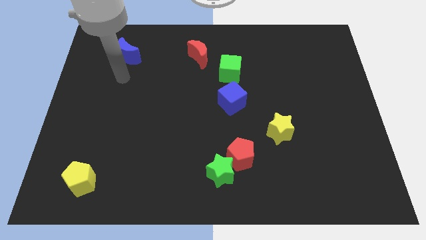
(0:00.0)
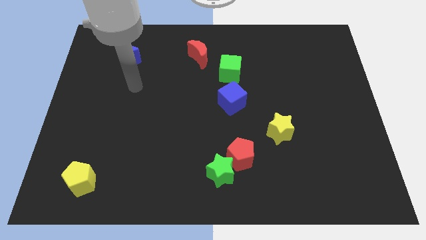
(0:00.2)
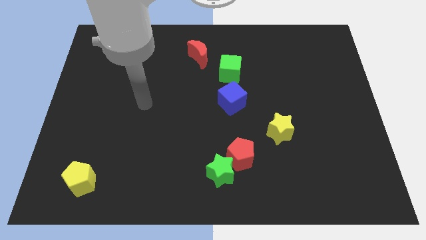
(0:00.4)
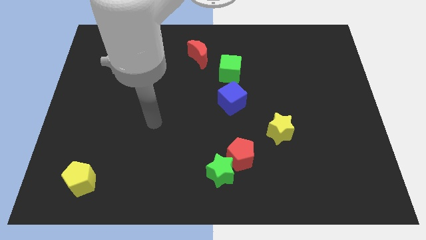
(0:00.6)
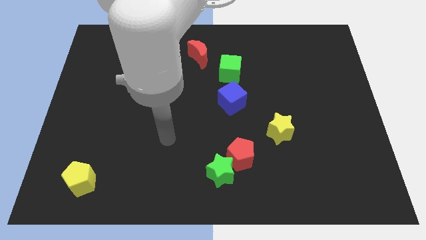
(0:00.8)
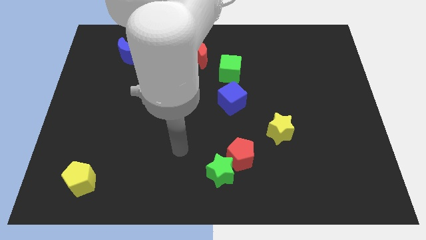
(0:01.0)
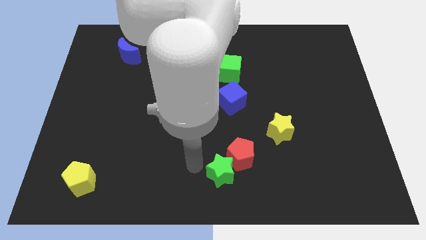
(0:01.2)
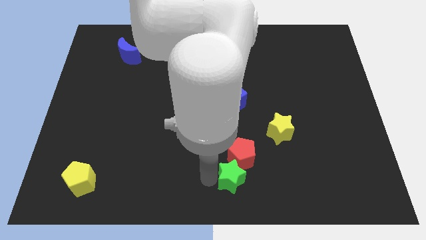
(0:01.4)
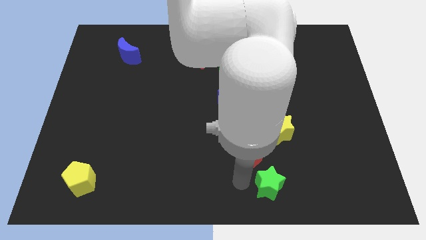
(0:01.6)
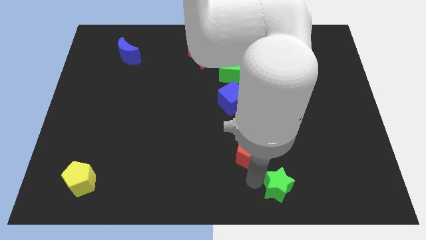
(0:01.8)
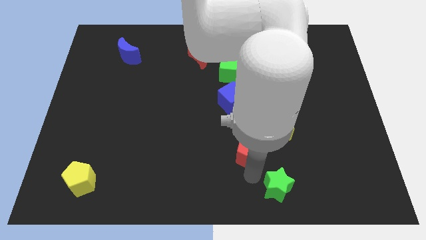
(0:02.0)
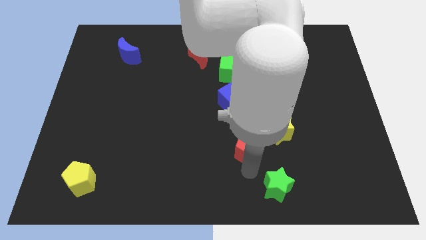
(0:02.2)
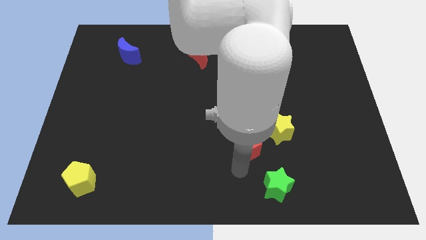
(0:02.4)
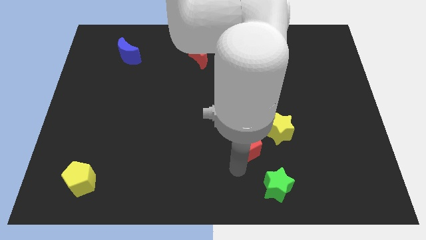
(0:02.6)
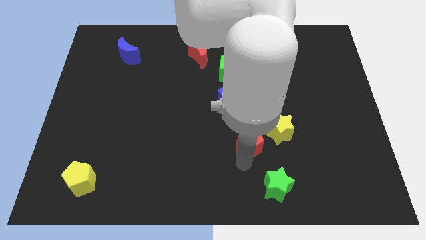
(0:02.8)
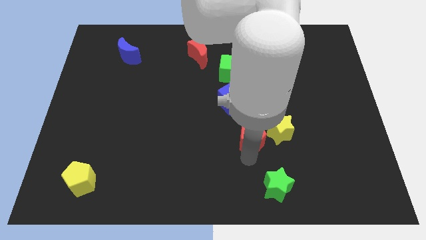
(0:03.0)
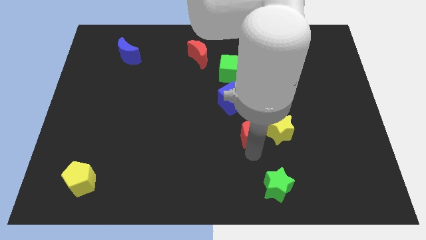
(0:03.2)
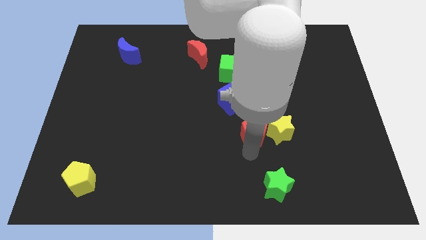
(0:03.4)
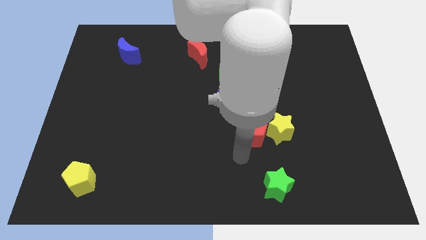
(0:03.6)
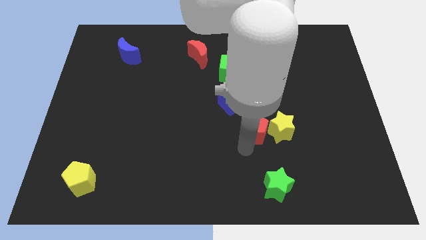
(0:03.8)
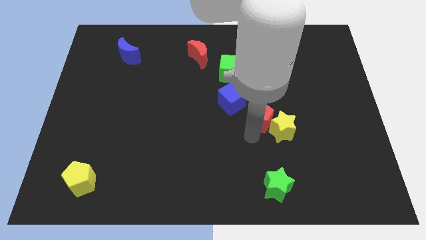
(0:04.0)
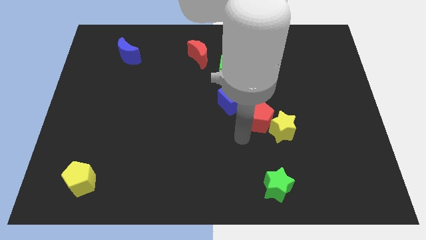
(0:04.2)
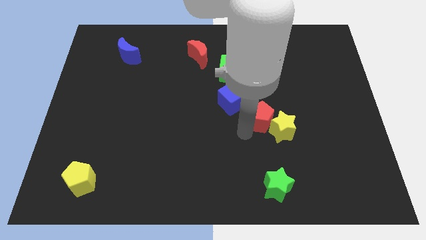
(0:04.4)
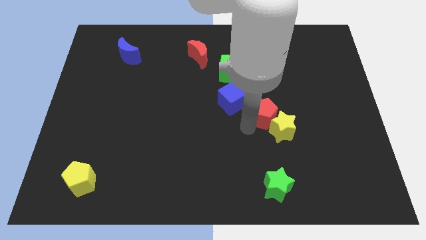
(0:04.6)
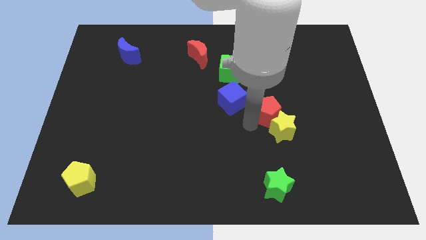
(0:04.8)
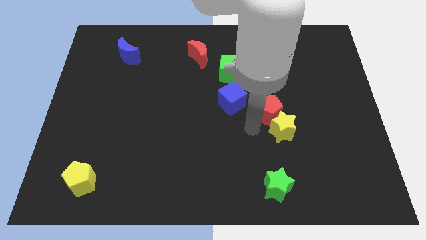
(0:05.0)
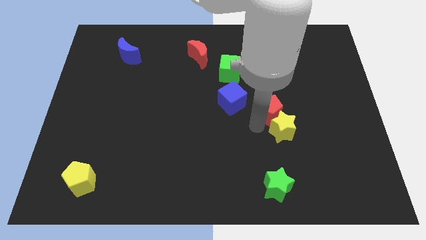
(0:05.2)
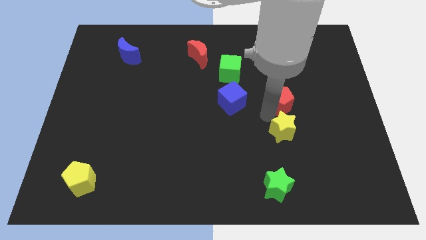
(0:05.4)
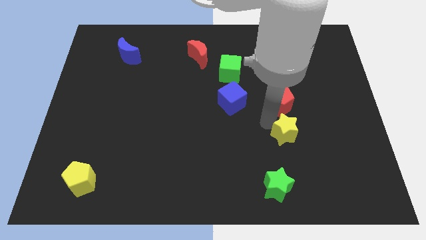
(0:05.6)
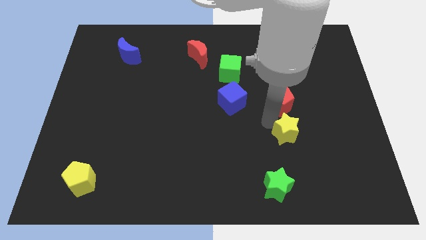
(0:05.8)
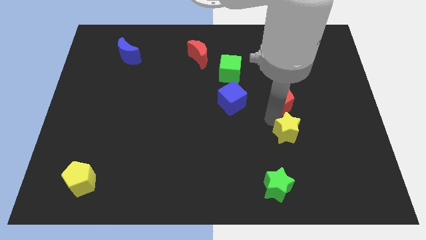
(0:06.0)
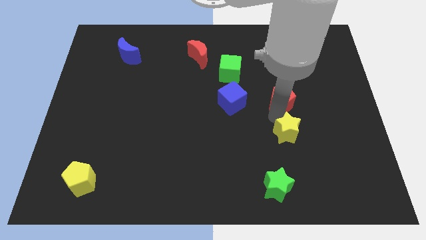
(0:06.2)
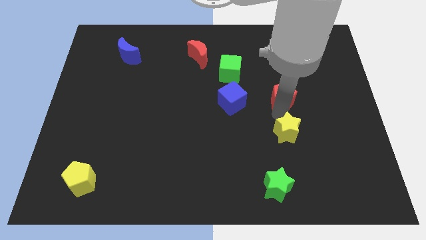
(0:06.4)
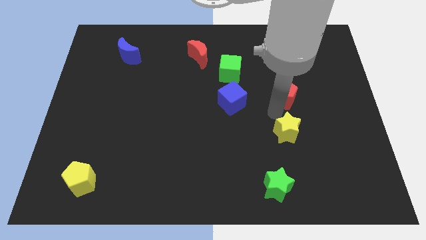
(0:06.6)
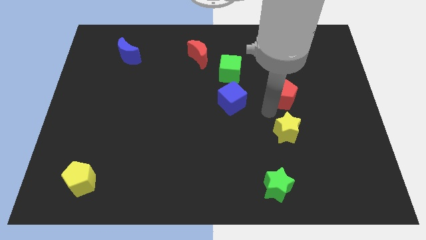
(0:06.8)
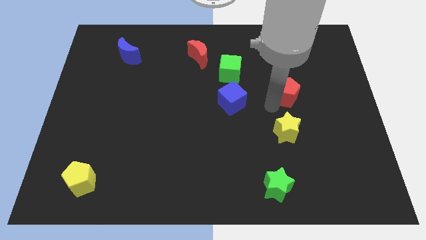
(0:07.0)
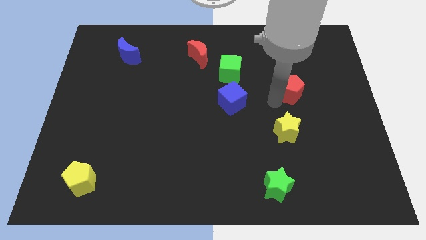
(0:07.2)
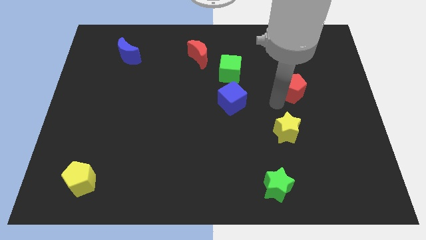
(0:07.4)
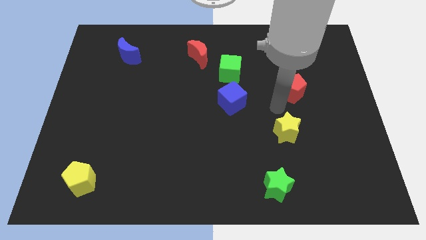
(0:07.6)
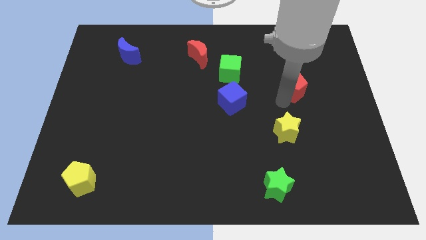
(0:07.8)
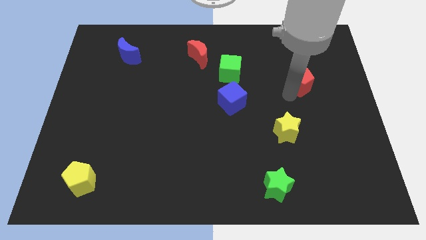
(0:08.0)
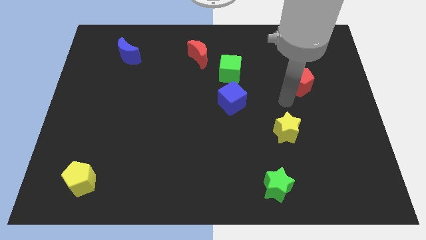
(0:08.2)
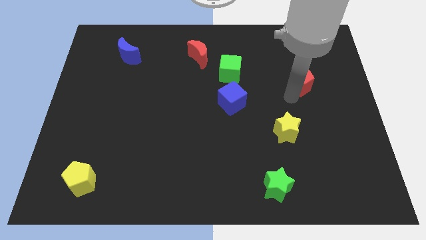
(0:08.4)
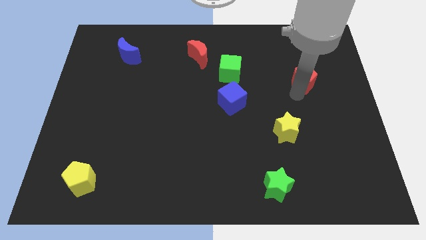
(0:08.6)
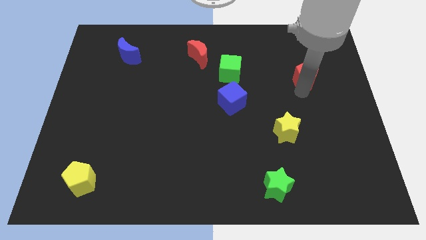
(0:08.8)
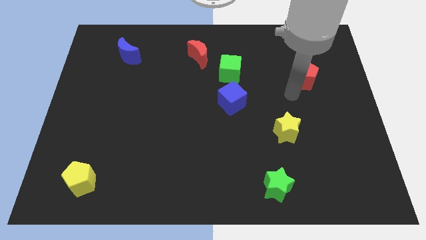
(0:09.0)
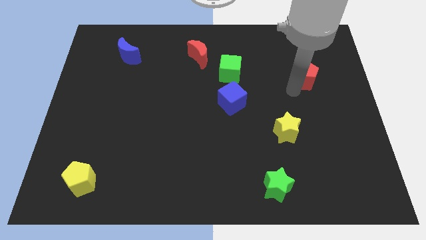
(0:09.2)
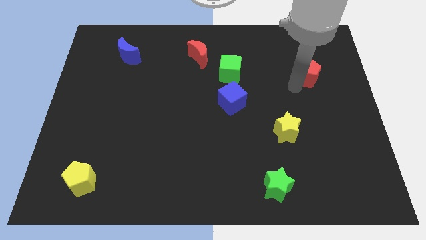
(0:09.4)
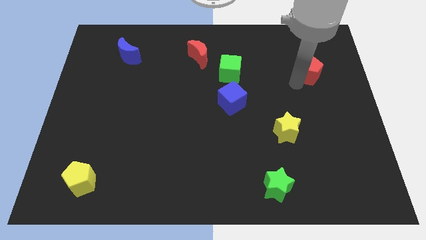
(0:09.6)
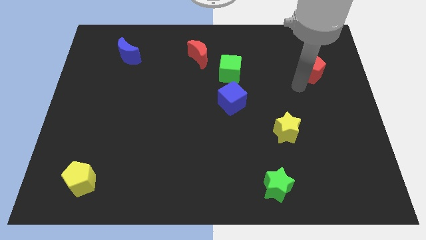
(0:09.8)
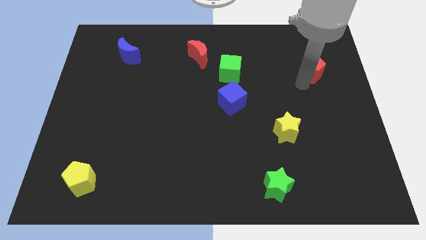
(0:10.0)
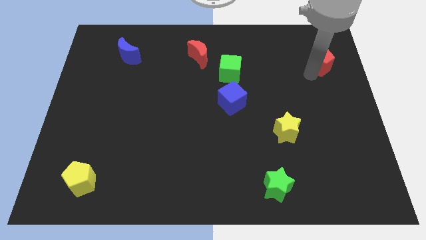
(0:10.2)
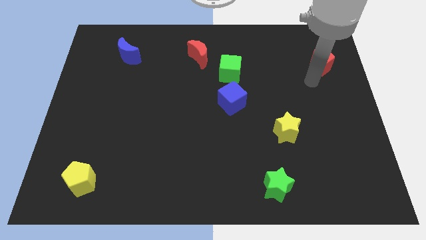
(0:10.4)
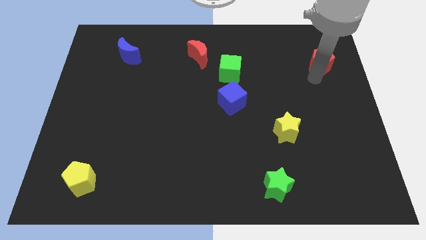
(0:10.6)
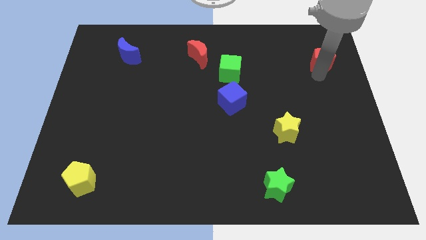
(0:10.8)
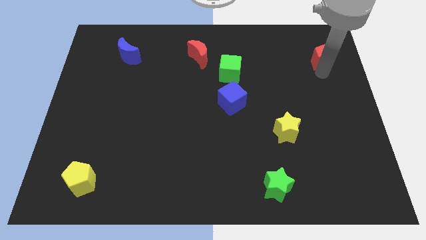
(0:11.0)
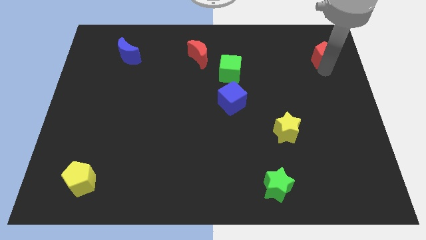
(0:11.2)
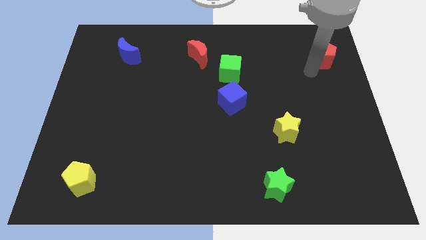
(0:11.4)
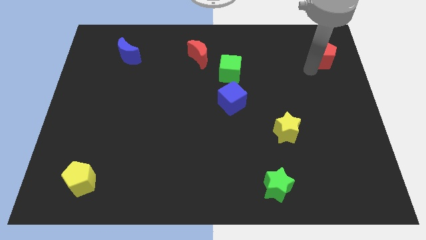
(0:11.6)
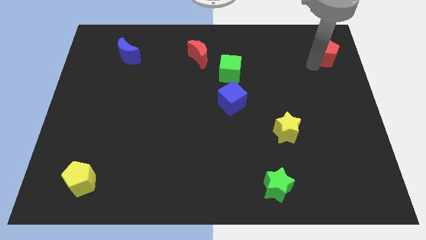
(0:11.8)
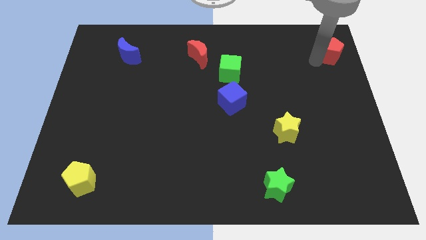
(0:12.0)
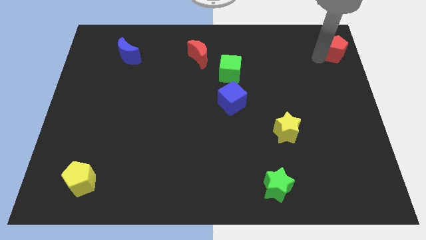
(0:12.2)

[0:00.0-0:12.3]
push the red pentagon to the top right corner

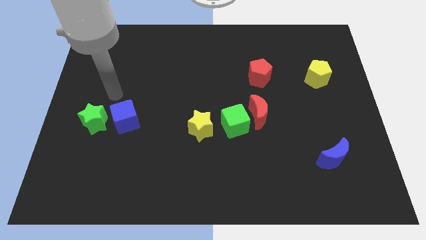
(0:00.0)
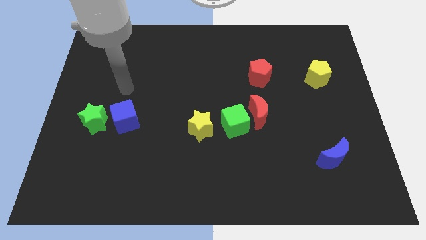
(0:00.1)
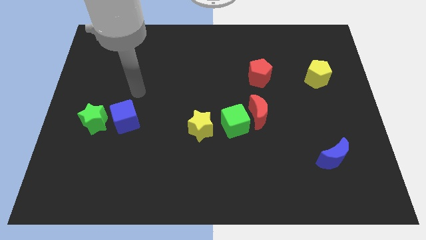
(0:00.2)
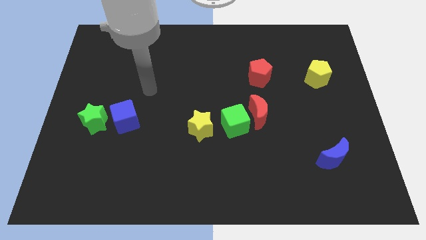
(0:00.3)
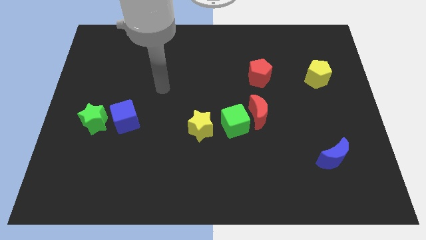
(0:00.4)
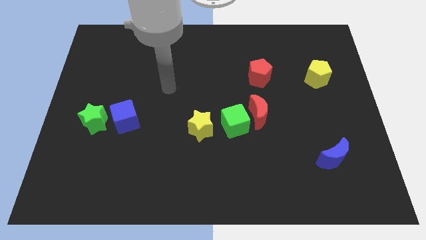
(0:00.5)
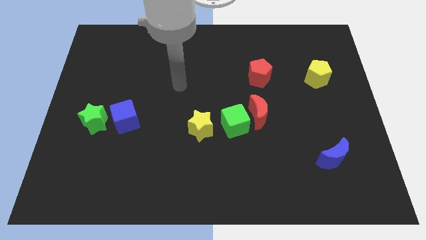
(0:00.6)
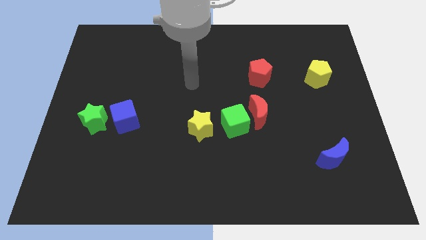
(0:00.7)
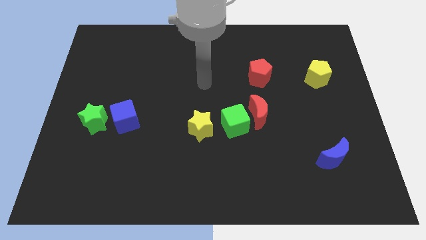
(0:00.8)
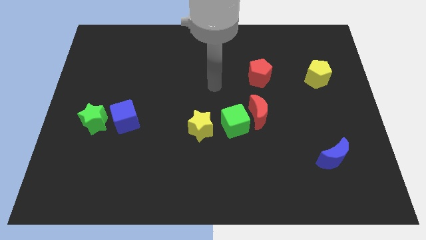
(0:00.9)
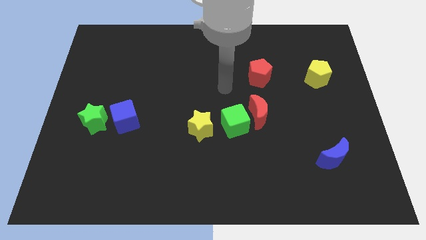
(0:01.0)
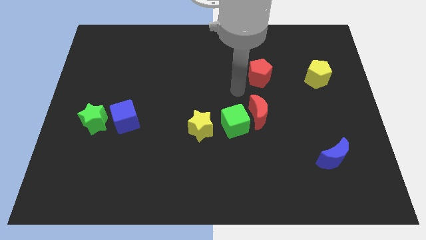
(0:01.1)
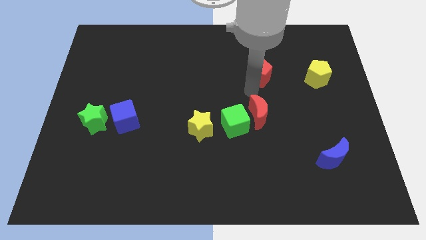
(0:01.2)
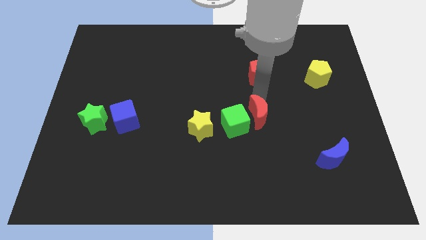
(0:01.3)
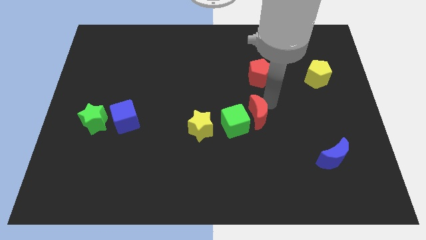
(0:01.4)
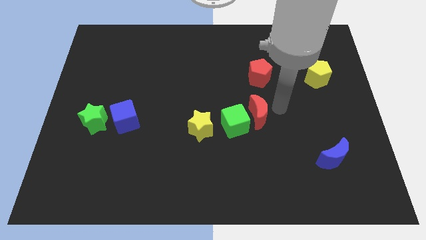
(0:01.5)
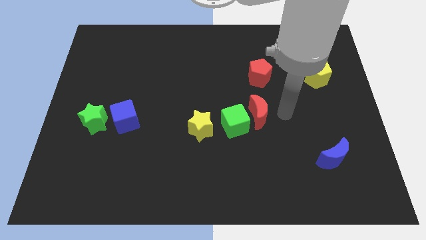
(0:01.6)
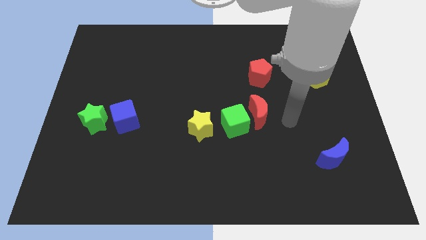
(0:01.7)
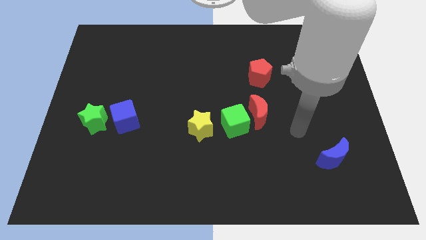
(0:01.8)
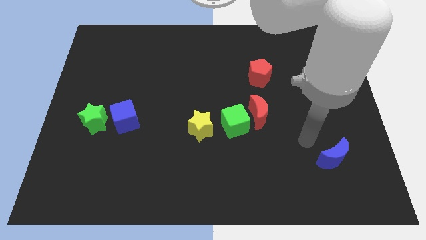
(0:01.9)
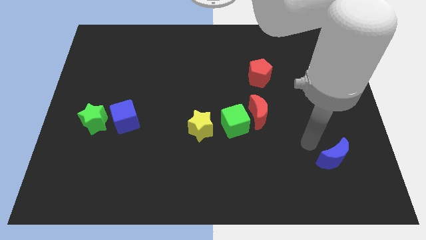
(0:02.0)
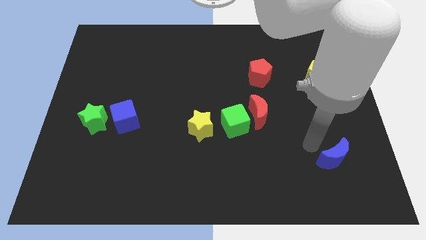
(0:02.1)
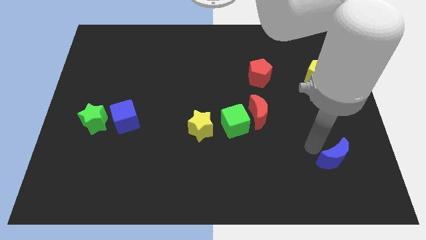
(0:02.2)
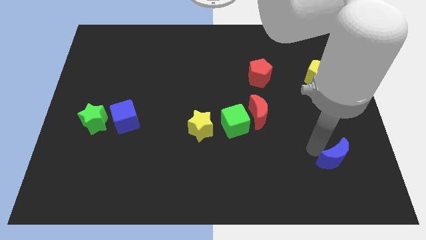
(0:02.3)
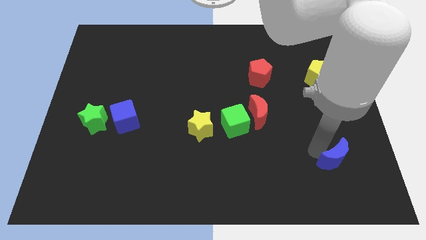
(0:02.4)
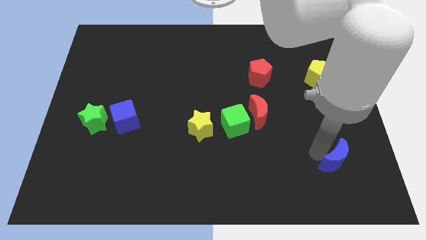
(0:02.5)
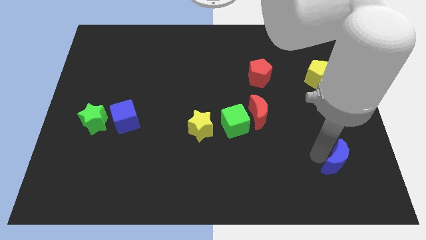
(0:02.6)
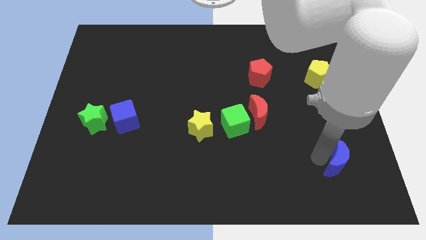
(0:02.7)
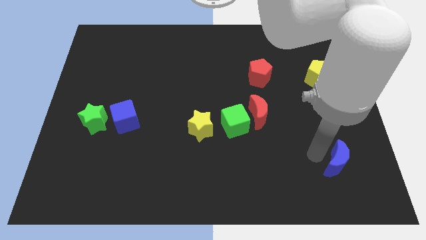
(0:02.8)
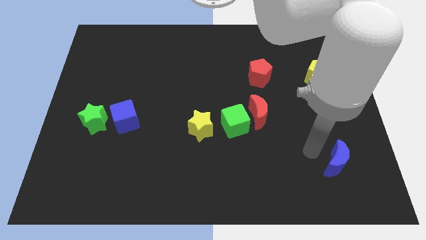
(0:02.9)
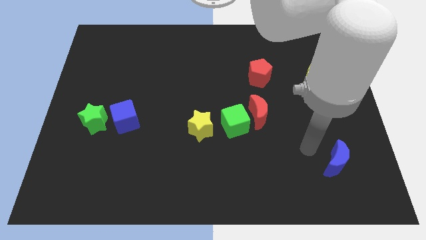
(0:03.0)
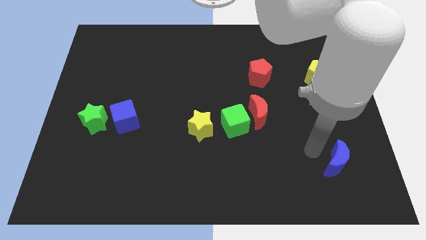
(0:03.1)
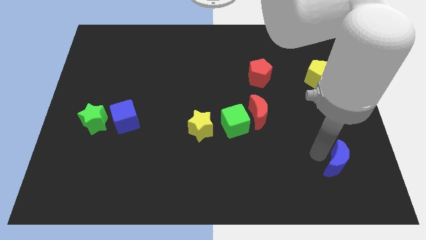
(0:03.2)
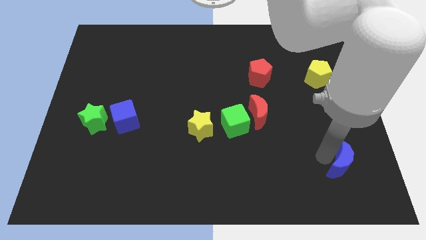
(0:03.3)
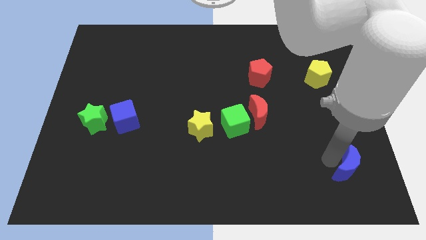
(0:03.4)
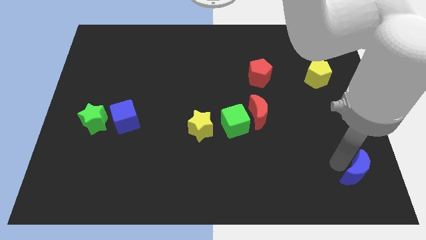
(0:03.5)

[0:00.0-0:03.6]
put the blue moon to the bottom right corner
